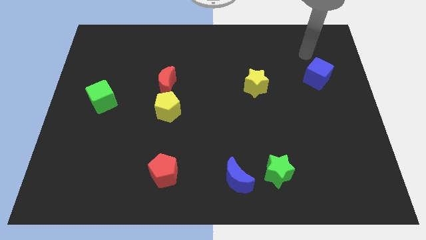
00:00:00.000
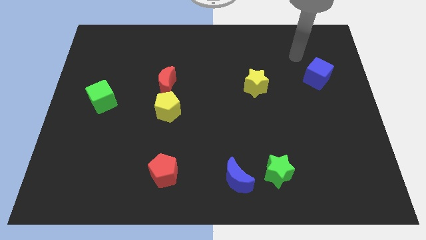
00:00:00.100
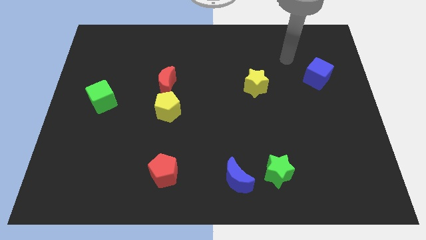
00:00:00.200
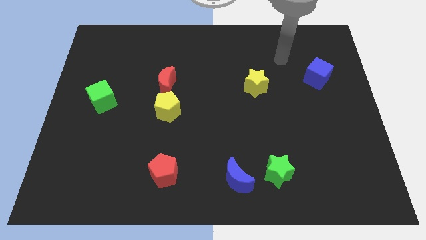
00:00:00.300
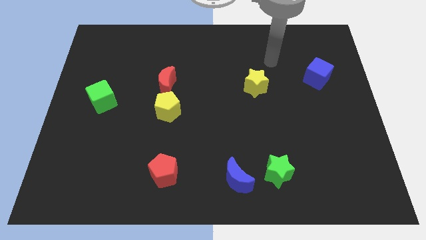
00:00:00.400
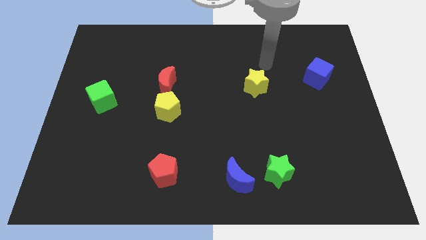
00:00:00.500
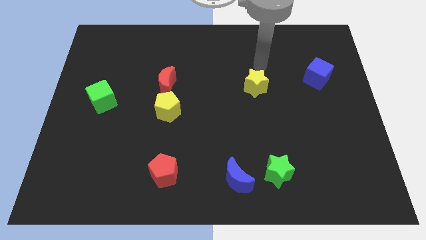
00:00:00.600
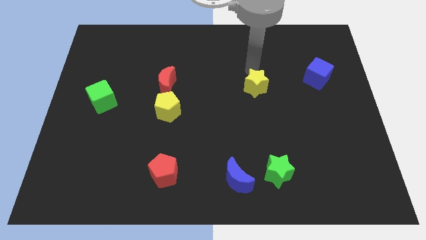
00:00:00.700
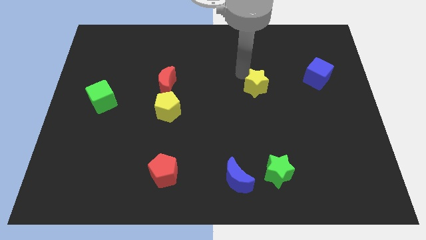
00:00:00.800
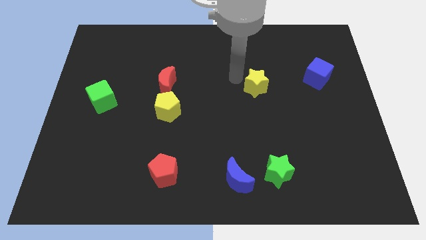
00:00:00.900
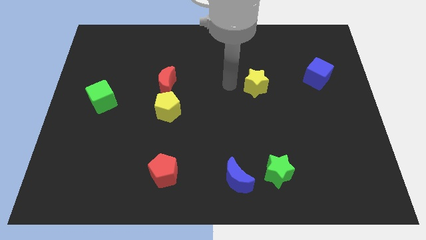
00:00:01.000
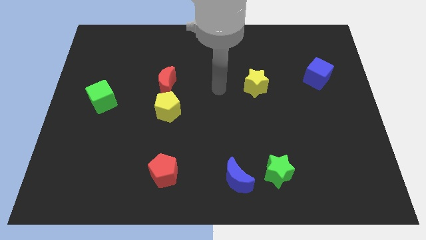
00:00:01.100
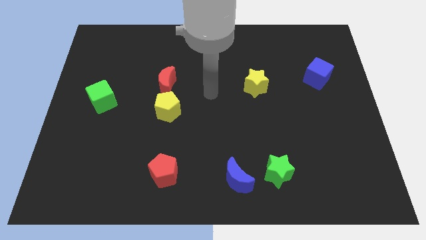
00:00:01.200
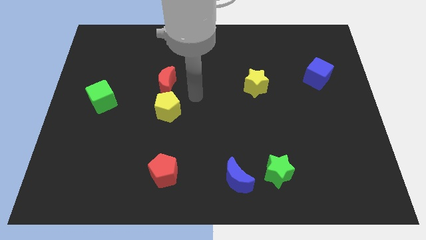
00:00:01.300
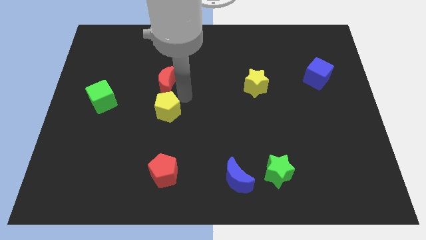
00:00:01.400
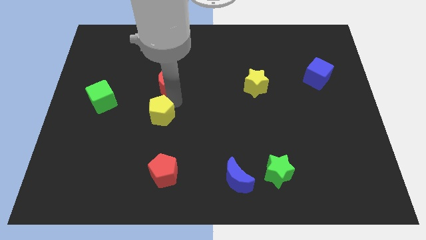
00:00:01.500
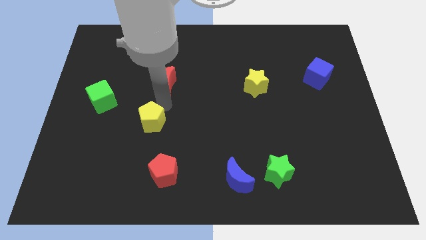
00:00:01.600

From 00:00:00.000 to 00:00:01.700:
separate the red moon from the yellow pentagon

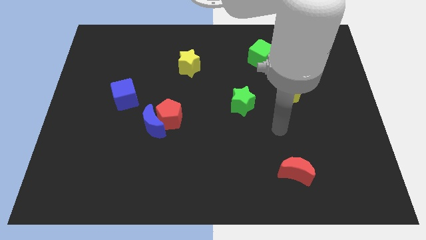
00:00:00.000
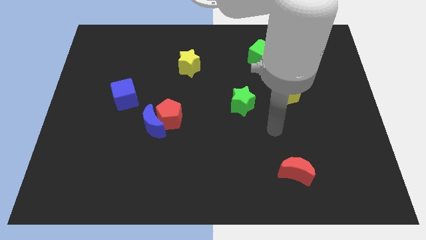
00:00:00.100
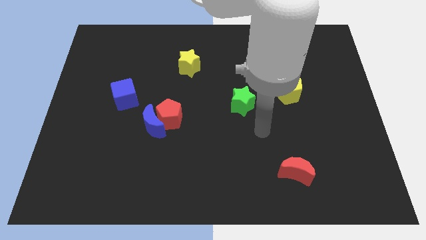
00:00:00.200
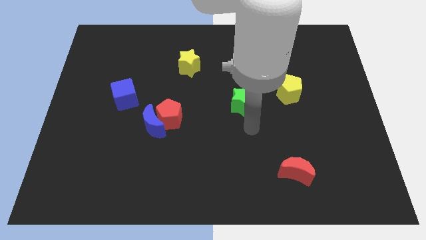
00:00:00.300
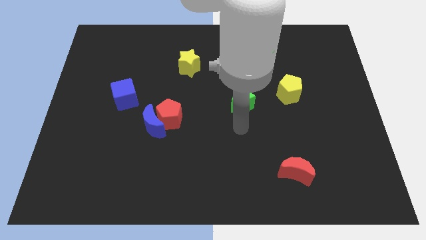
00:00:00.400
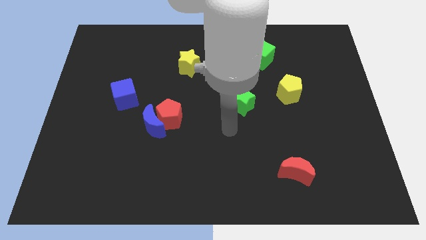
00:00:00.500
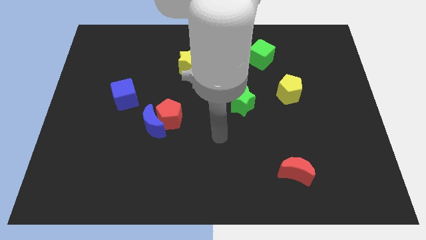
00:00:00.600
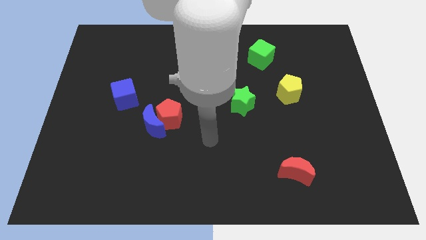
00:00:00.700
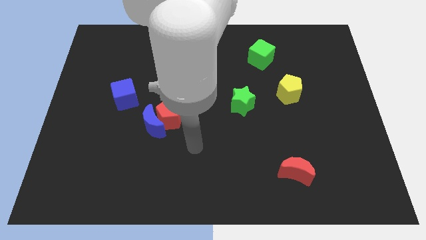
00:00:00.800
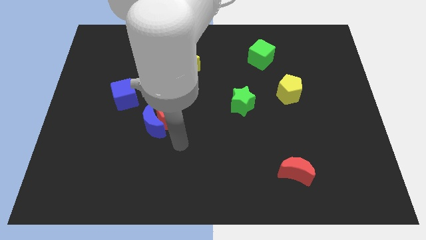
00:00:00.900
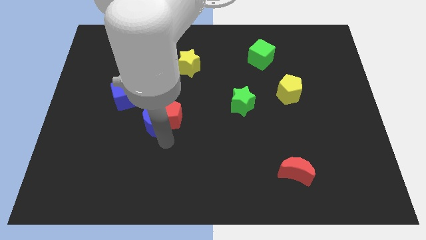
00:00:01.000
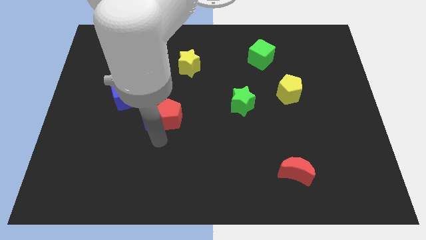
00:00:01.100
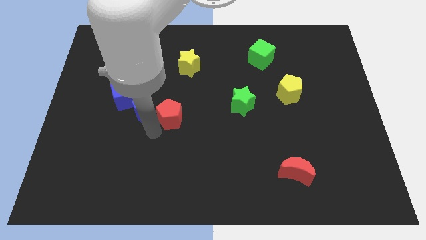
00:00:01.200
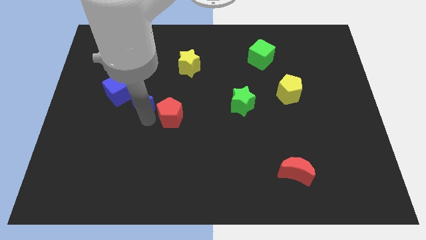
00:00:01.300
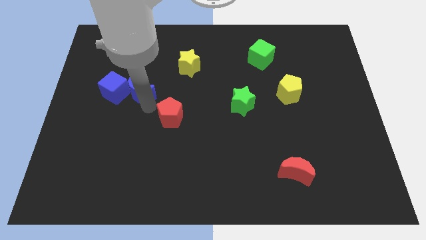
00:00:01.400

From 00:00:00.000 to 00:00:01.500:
pull the red pentagon apart from the blue moon

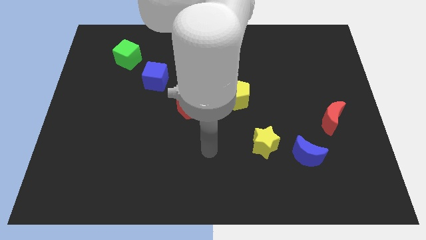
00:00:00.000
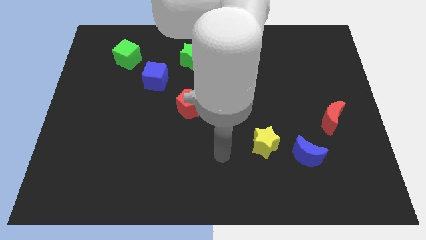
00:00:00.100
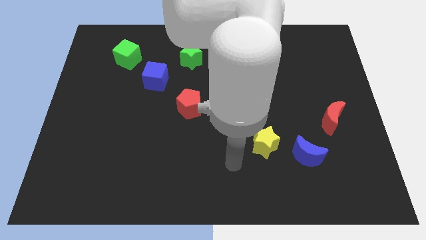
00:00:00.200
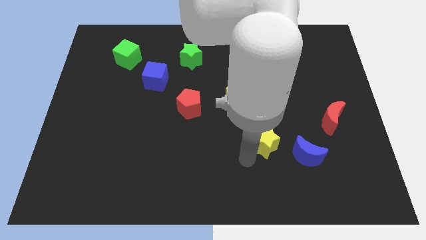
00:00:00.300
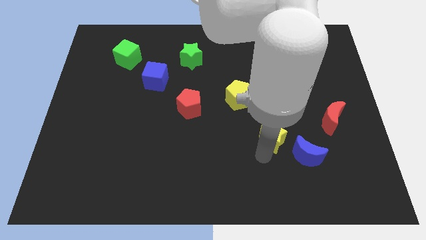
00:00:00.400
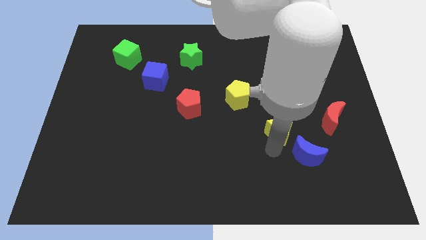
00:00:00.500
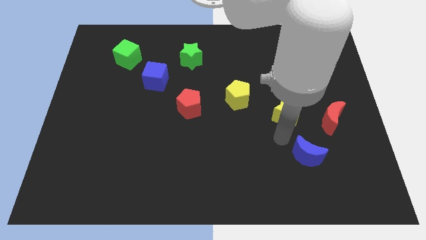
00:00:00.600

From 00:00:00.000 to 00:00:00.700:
move the blue moon away from the yellow star

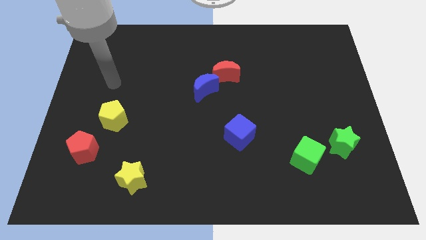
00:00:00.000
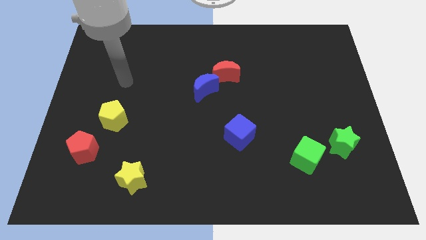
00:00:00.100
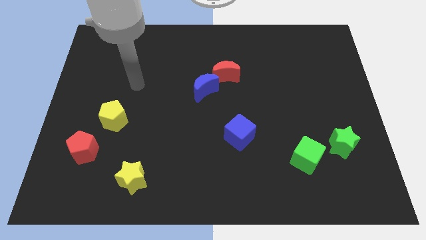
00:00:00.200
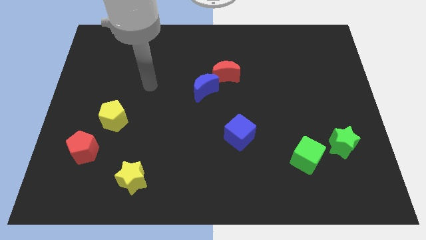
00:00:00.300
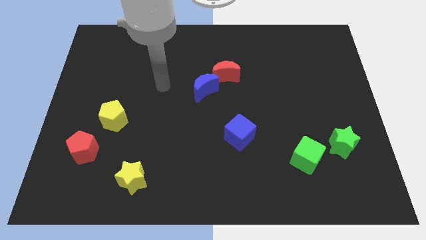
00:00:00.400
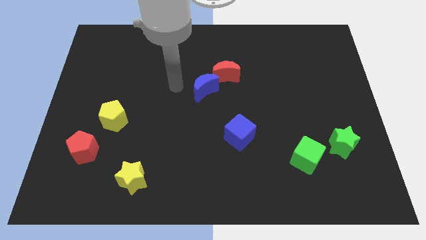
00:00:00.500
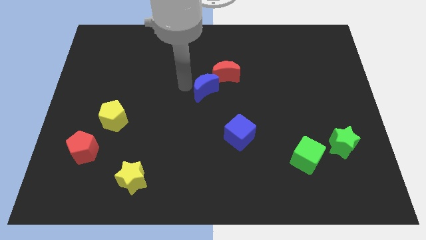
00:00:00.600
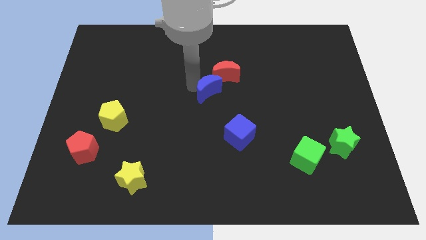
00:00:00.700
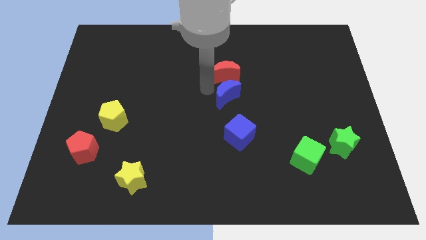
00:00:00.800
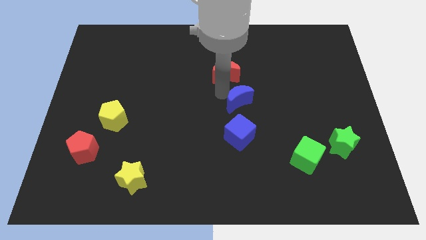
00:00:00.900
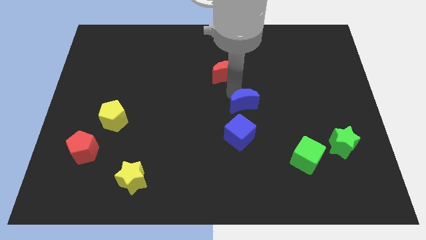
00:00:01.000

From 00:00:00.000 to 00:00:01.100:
move the red moon away from the blue moon

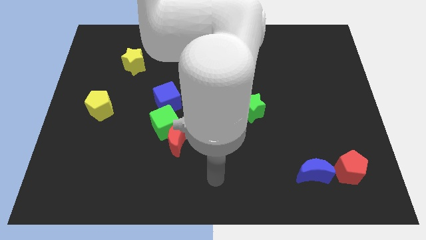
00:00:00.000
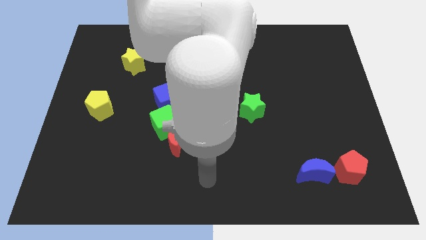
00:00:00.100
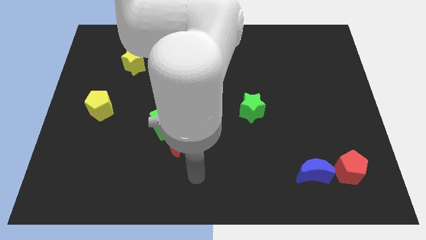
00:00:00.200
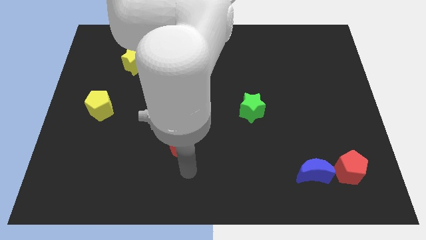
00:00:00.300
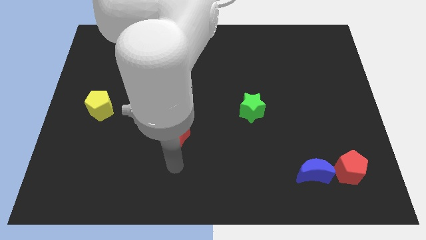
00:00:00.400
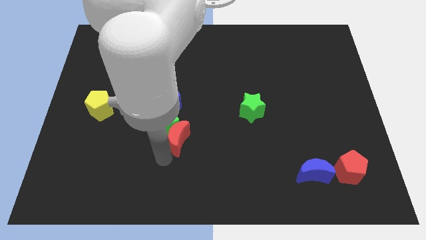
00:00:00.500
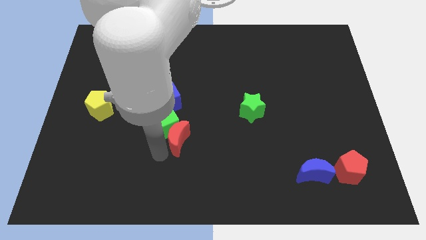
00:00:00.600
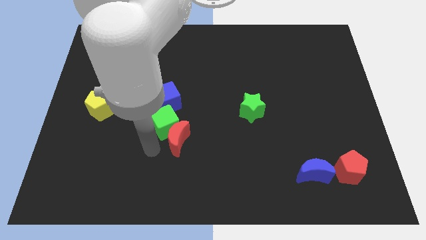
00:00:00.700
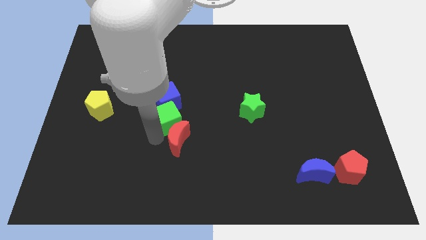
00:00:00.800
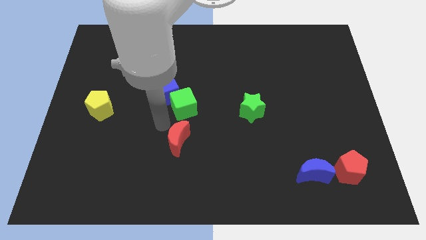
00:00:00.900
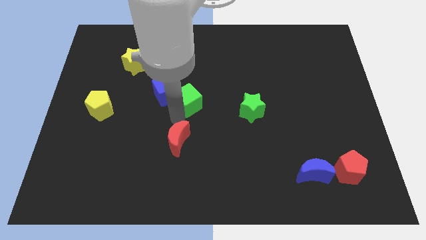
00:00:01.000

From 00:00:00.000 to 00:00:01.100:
pull the red moon apart from the green cube

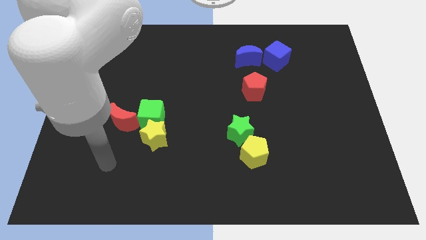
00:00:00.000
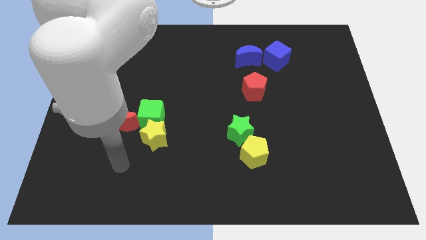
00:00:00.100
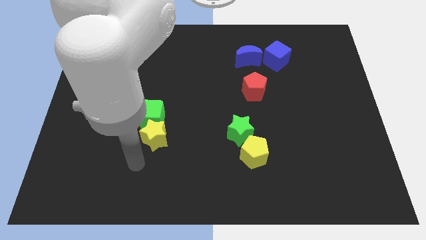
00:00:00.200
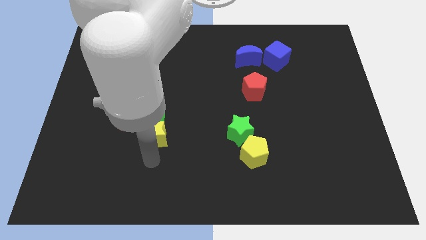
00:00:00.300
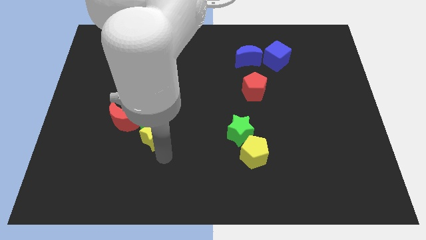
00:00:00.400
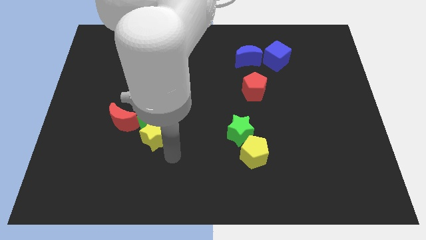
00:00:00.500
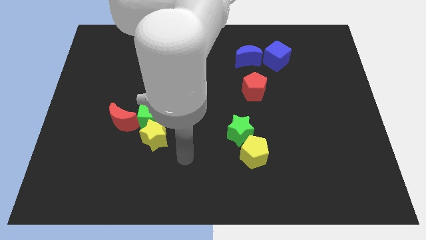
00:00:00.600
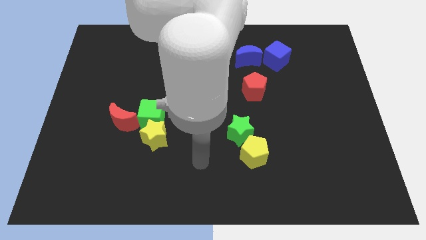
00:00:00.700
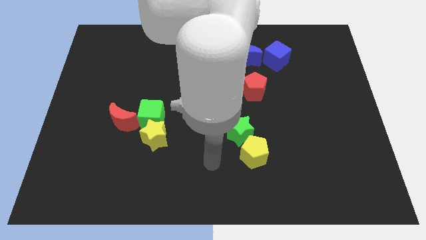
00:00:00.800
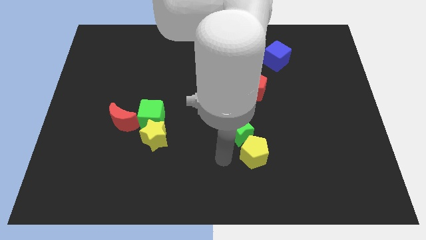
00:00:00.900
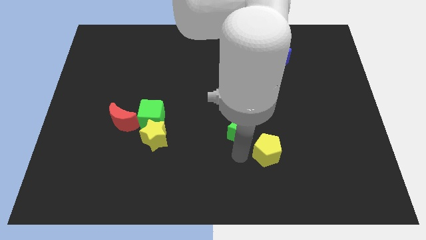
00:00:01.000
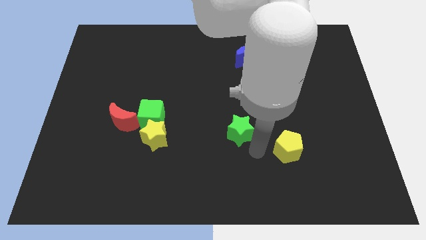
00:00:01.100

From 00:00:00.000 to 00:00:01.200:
pull the green star apart from the yellow pentagon

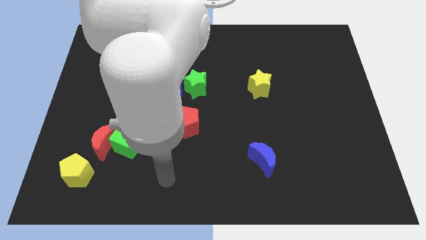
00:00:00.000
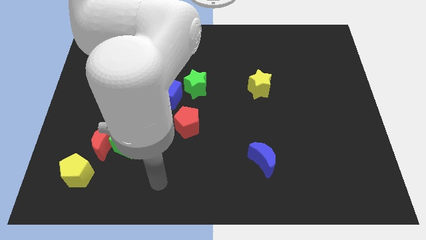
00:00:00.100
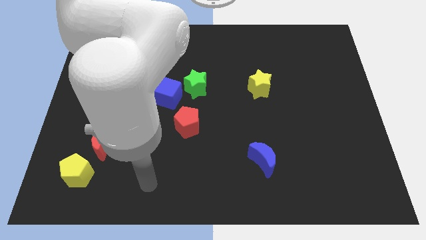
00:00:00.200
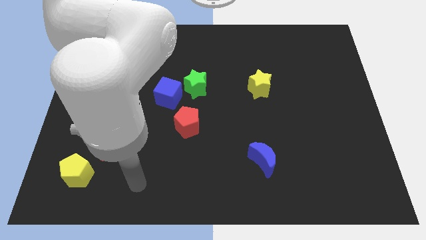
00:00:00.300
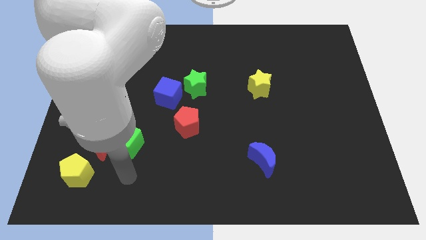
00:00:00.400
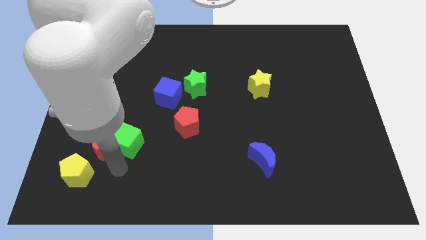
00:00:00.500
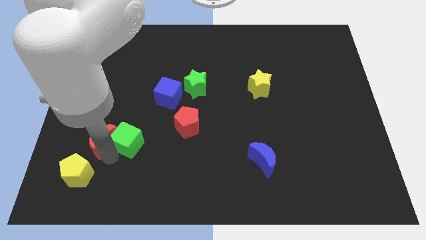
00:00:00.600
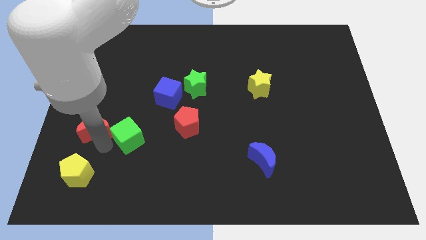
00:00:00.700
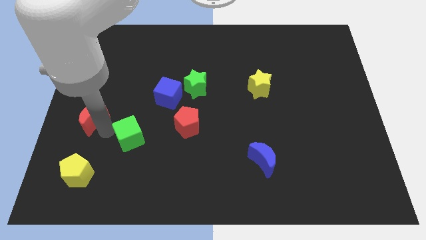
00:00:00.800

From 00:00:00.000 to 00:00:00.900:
move the green cube away from the red moon

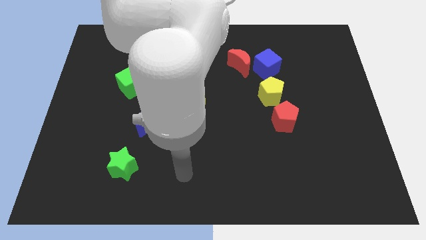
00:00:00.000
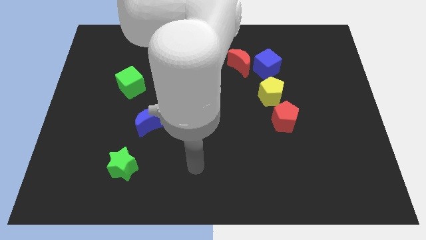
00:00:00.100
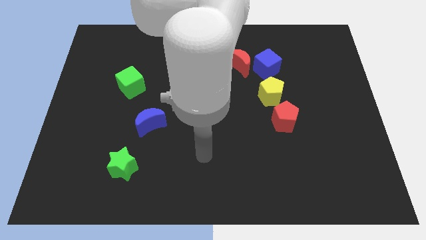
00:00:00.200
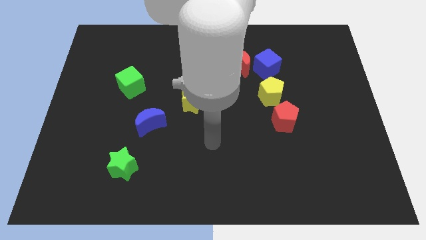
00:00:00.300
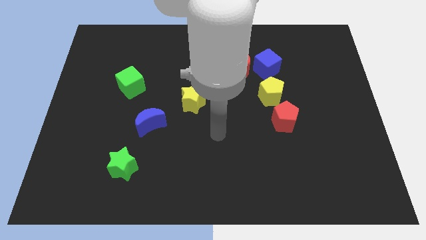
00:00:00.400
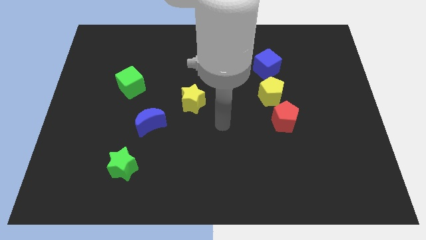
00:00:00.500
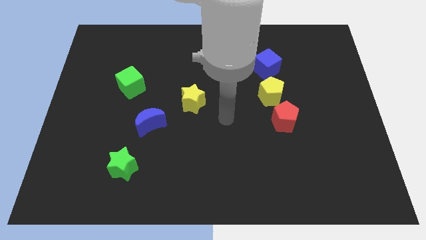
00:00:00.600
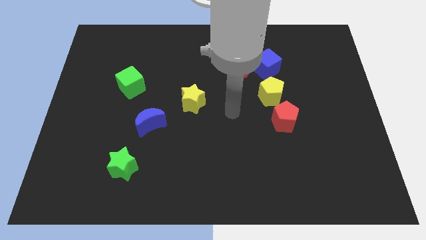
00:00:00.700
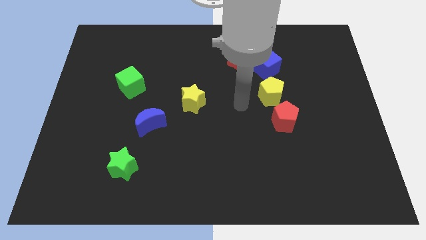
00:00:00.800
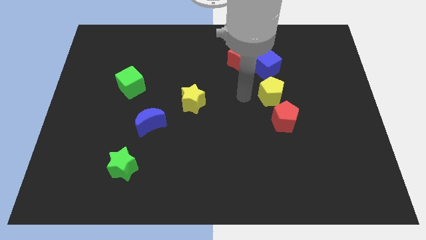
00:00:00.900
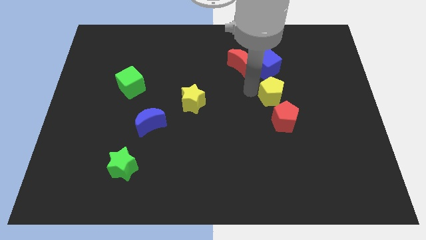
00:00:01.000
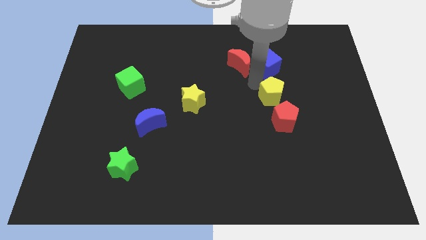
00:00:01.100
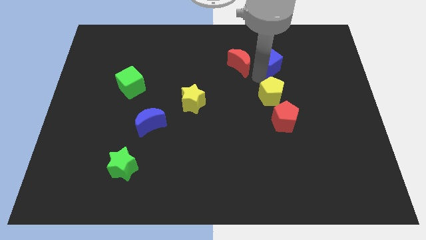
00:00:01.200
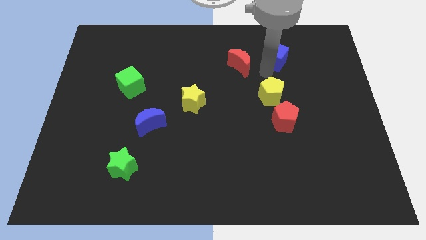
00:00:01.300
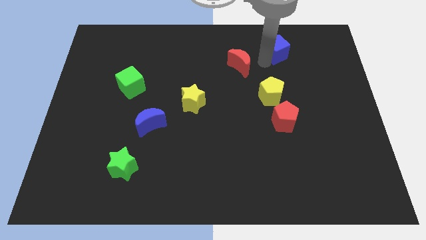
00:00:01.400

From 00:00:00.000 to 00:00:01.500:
pull the red moon apart from the blue cube
